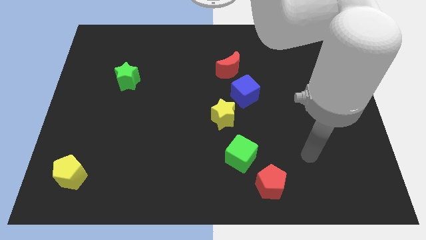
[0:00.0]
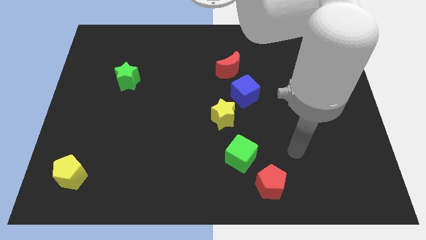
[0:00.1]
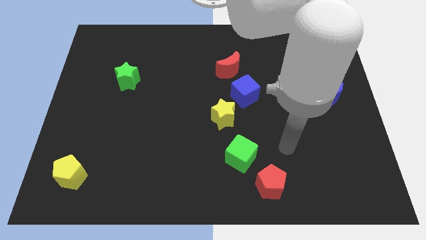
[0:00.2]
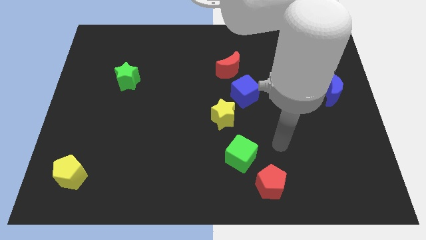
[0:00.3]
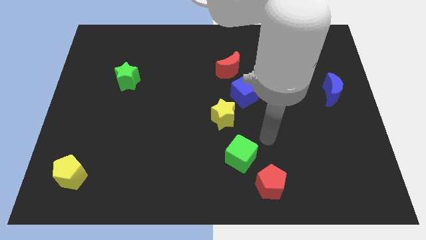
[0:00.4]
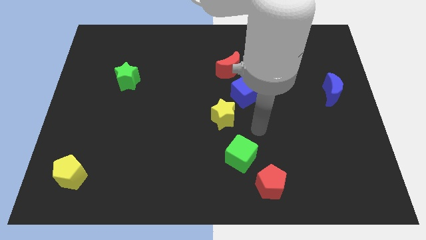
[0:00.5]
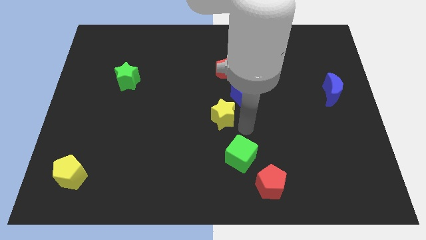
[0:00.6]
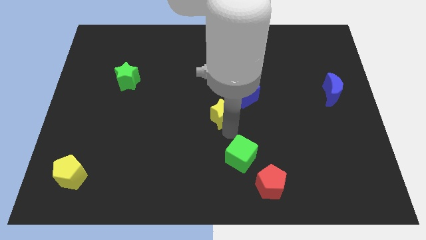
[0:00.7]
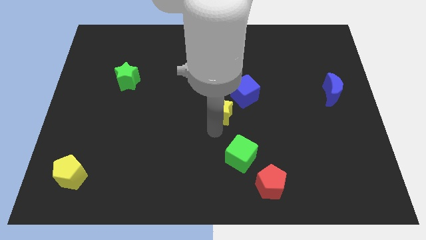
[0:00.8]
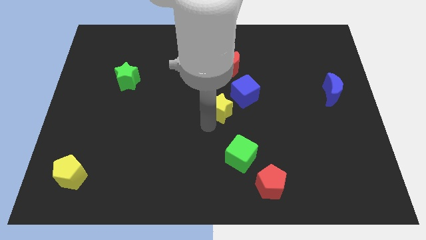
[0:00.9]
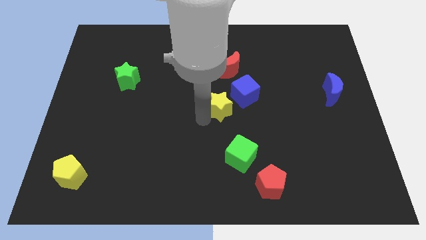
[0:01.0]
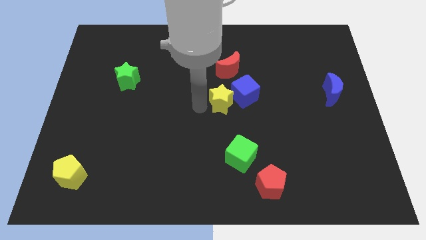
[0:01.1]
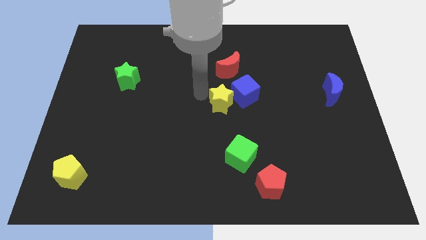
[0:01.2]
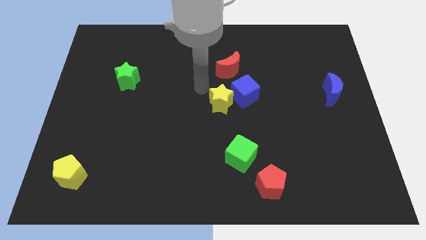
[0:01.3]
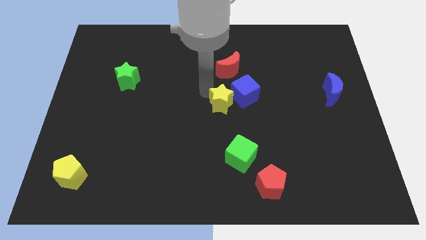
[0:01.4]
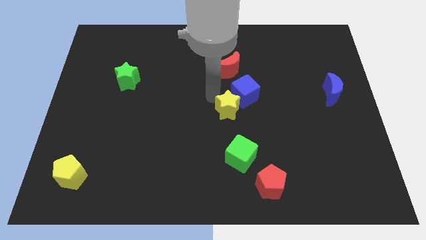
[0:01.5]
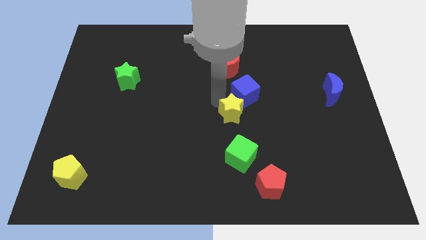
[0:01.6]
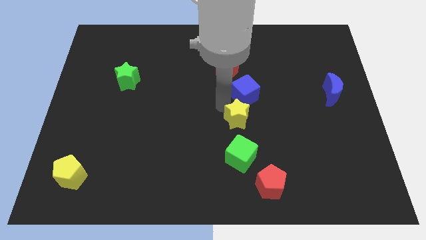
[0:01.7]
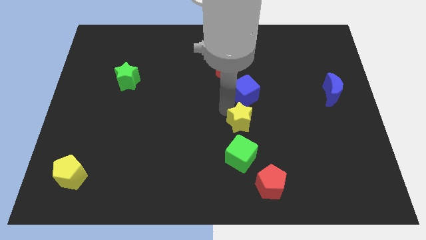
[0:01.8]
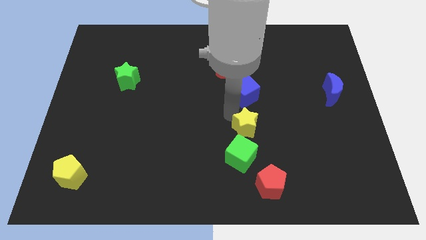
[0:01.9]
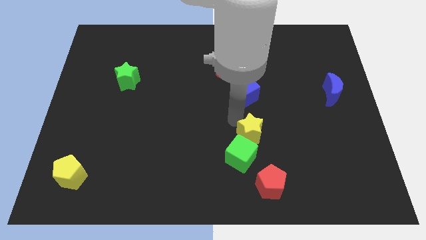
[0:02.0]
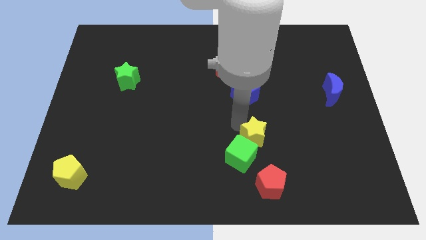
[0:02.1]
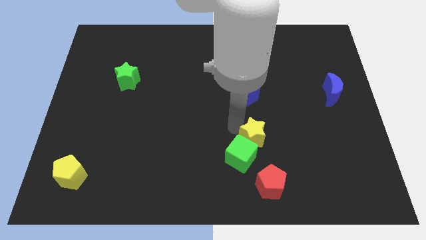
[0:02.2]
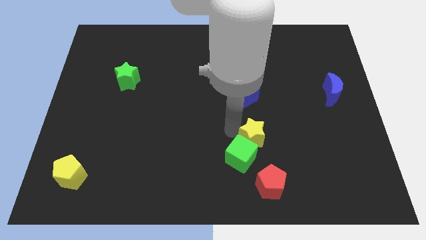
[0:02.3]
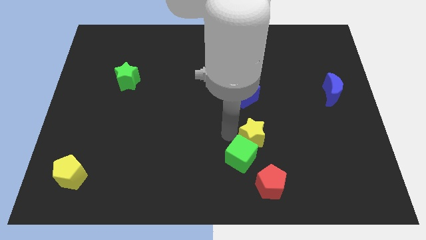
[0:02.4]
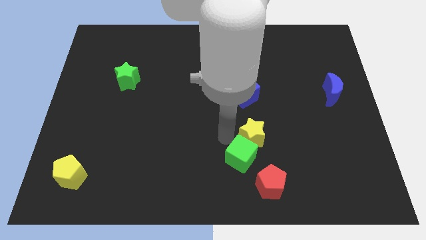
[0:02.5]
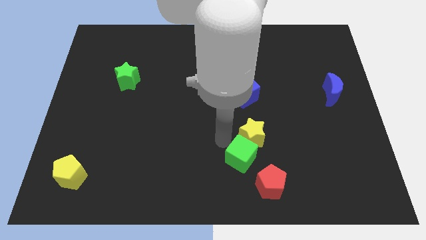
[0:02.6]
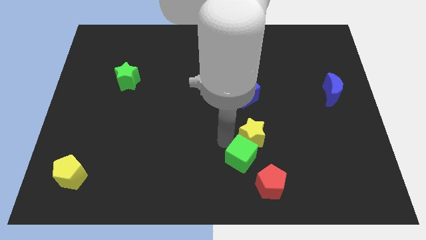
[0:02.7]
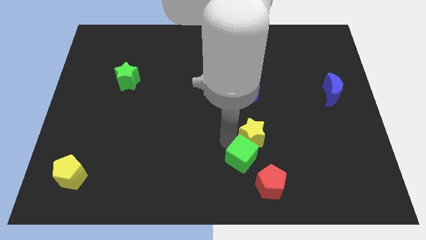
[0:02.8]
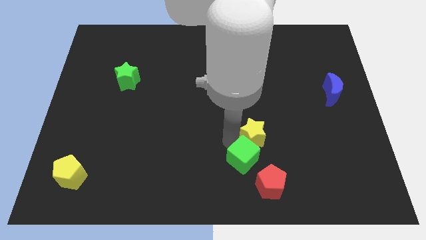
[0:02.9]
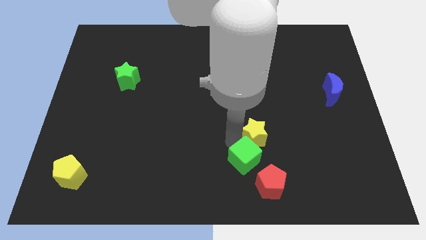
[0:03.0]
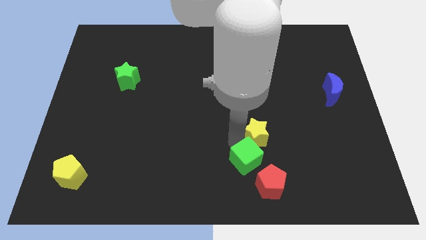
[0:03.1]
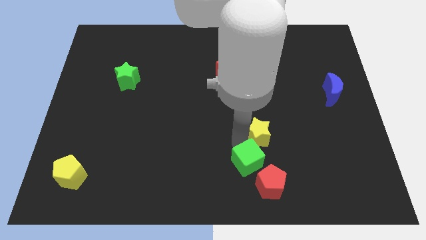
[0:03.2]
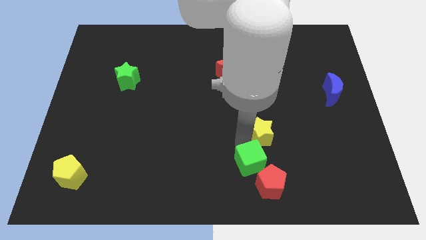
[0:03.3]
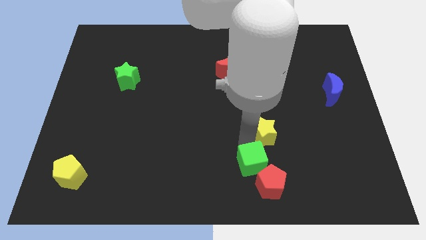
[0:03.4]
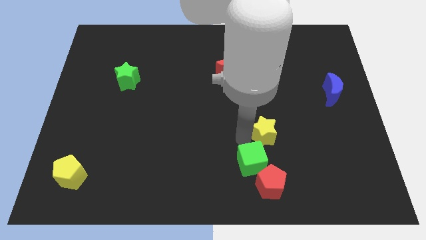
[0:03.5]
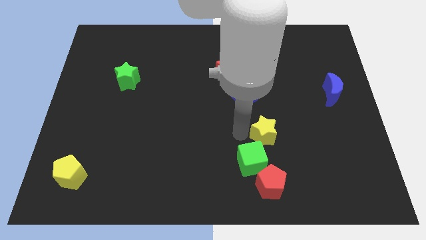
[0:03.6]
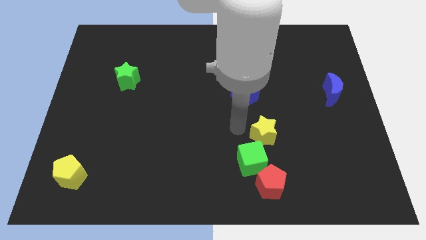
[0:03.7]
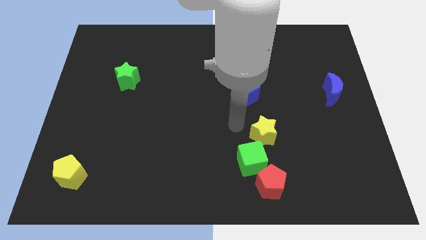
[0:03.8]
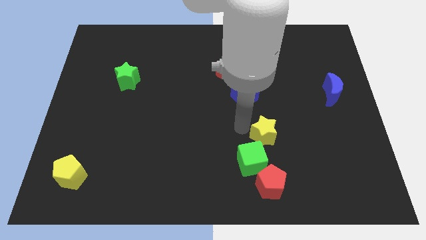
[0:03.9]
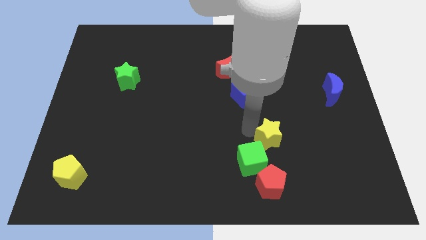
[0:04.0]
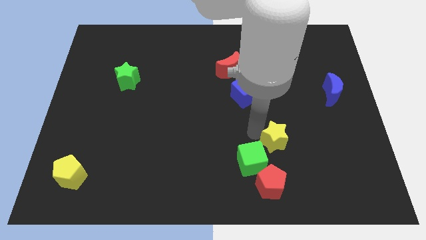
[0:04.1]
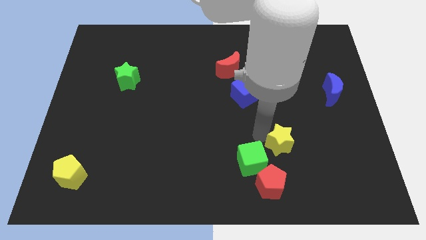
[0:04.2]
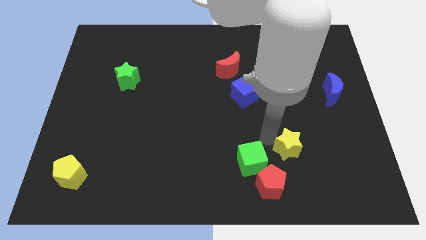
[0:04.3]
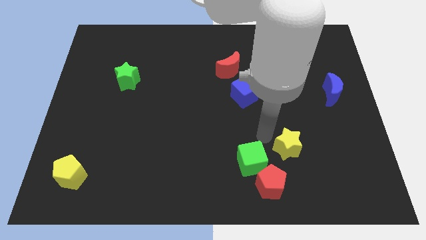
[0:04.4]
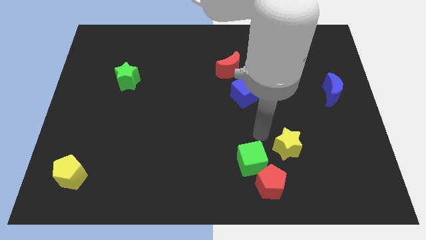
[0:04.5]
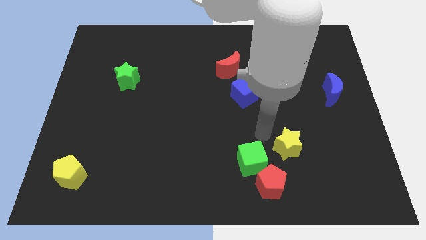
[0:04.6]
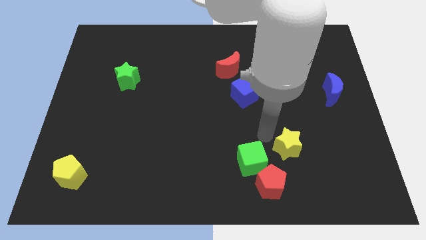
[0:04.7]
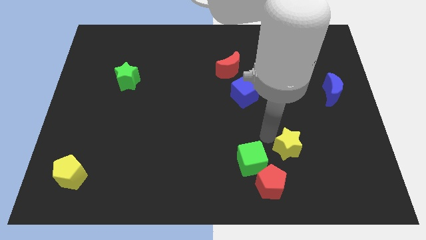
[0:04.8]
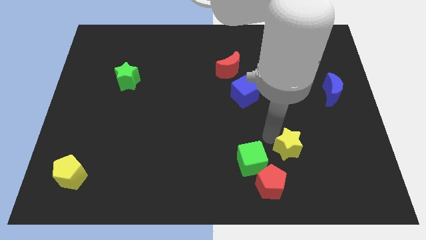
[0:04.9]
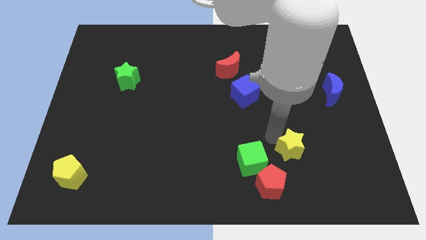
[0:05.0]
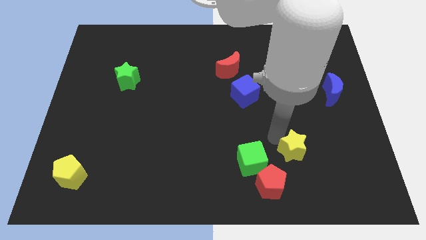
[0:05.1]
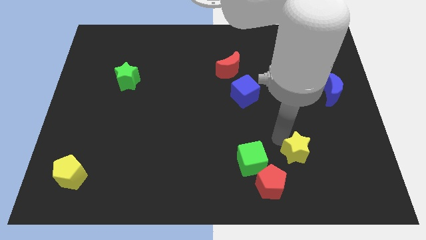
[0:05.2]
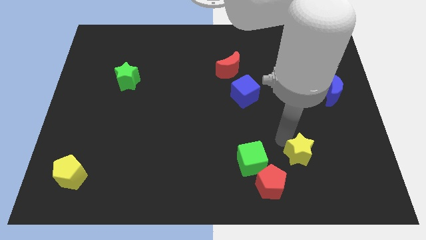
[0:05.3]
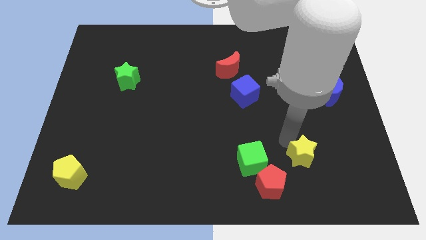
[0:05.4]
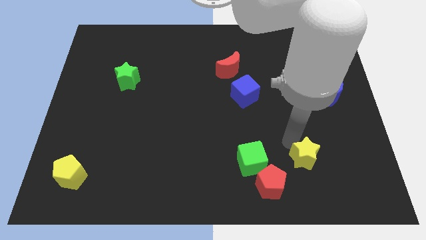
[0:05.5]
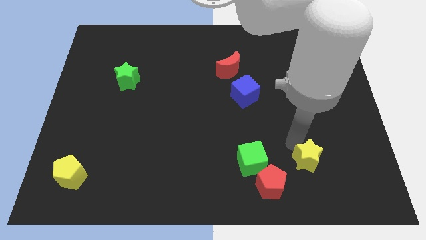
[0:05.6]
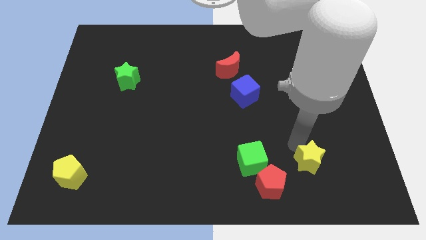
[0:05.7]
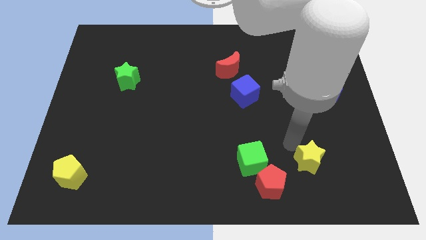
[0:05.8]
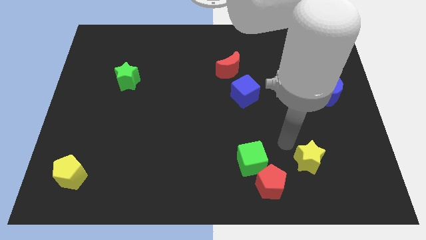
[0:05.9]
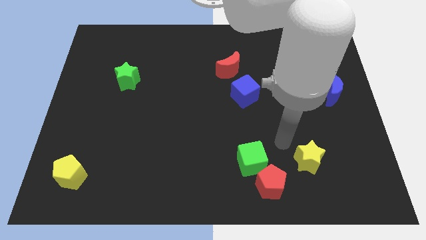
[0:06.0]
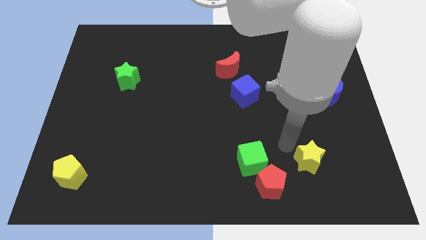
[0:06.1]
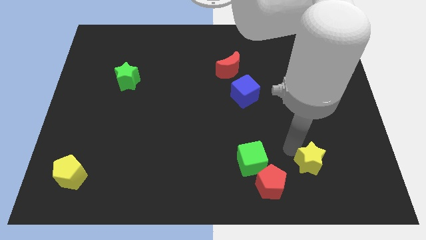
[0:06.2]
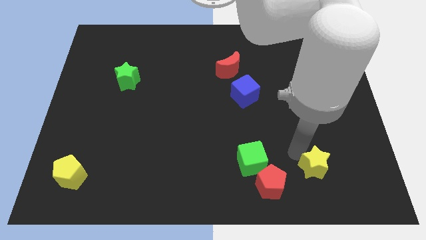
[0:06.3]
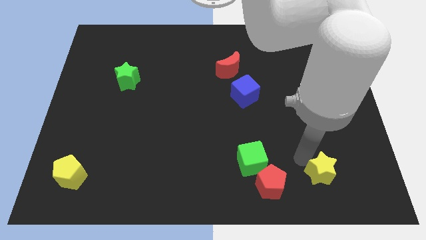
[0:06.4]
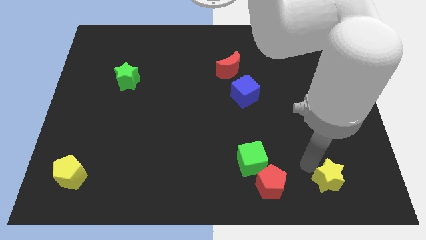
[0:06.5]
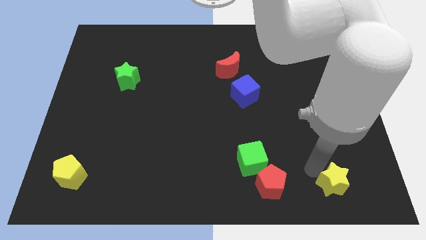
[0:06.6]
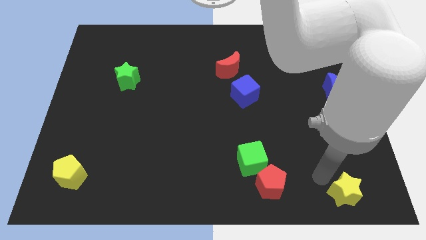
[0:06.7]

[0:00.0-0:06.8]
slide the yellow star to the bottom right corner
